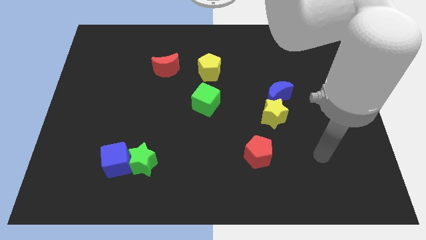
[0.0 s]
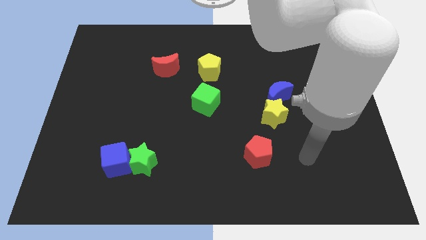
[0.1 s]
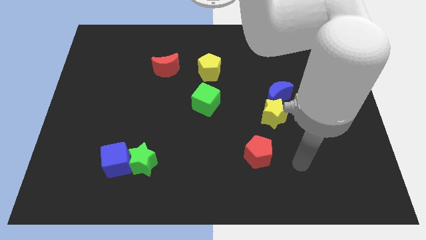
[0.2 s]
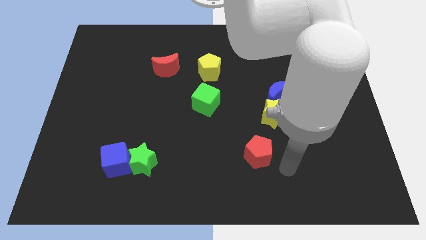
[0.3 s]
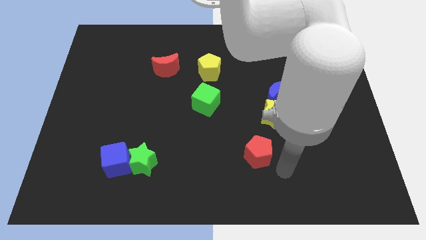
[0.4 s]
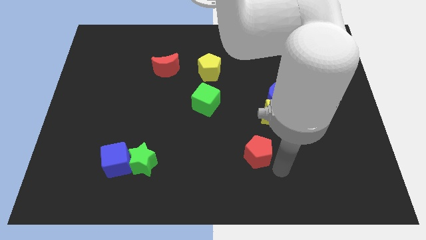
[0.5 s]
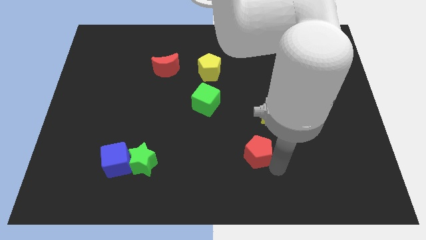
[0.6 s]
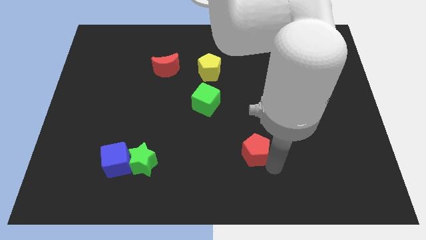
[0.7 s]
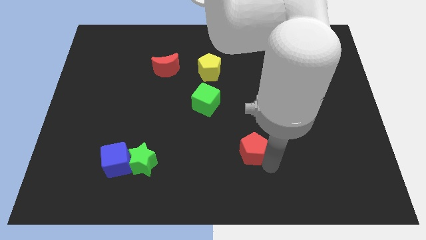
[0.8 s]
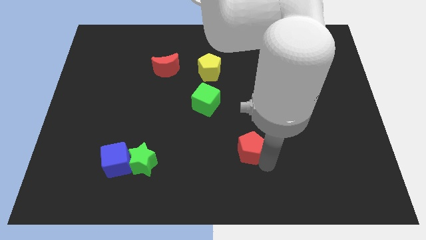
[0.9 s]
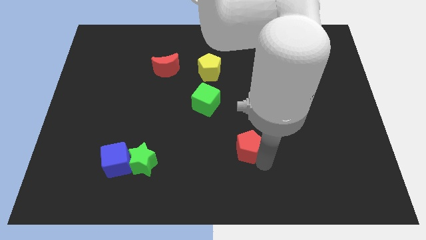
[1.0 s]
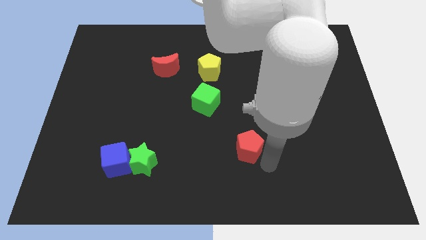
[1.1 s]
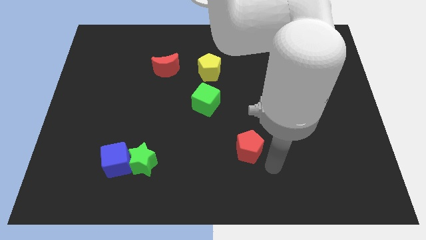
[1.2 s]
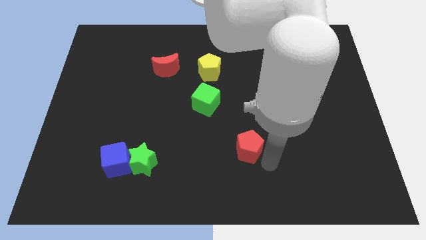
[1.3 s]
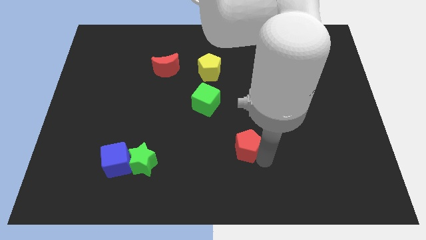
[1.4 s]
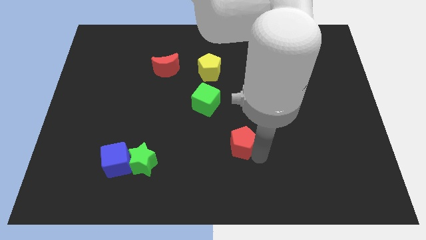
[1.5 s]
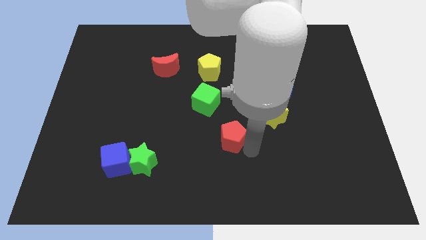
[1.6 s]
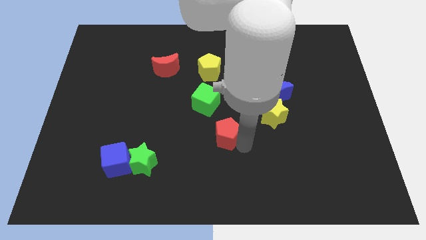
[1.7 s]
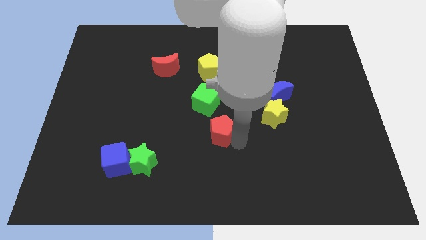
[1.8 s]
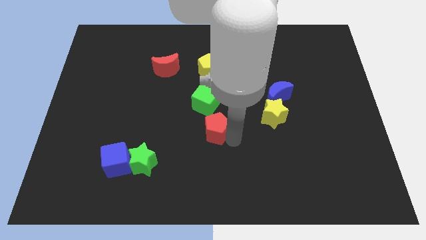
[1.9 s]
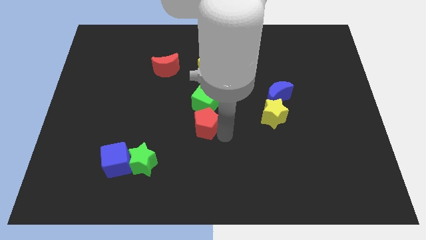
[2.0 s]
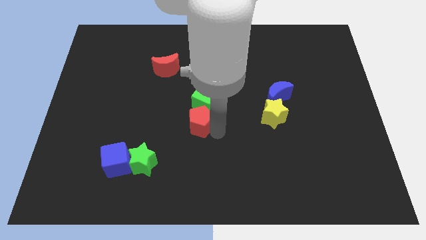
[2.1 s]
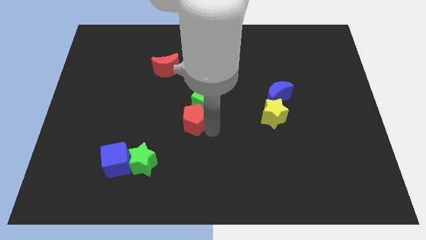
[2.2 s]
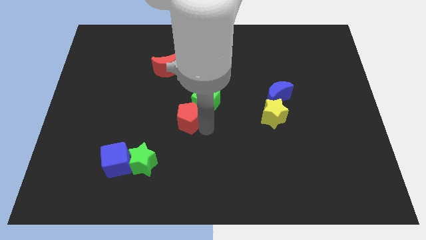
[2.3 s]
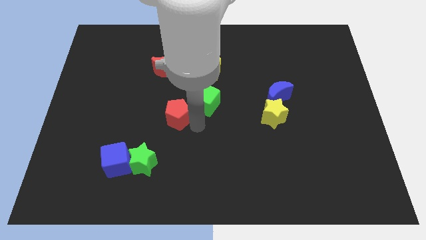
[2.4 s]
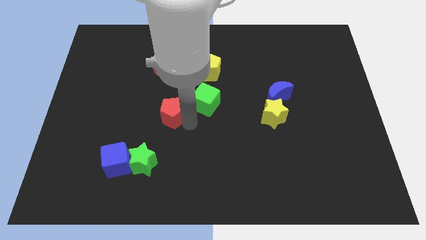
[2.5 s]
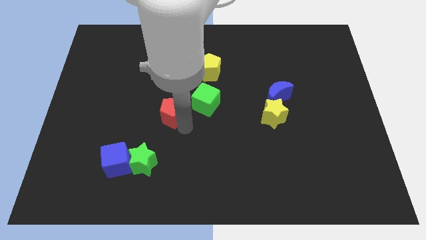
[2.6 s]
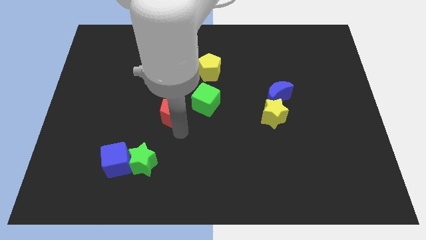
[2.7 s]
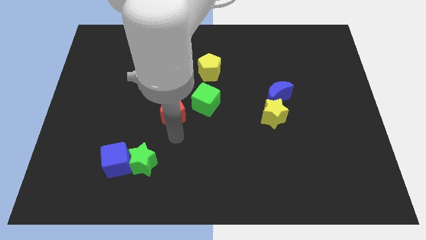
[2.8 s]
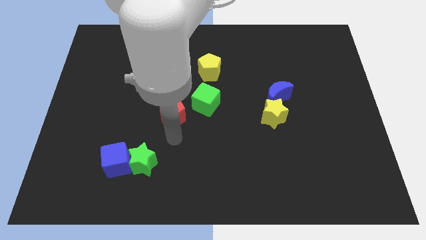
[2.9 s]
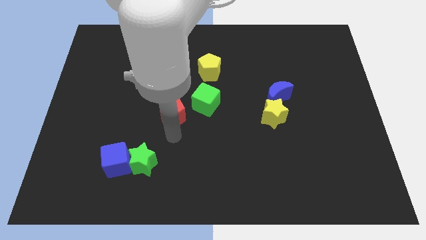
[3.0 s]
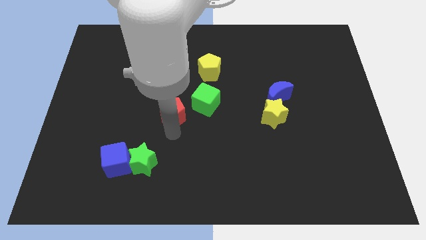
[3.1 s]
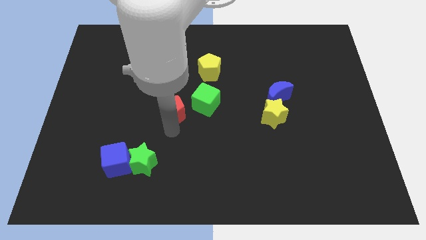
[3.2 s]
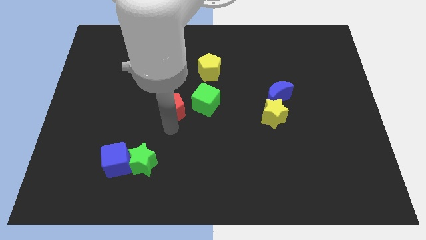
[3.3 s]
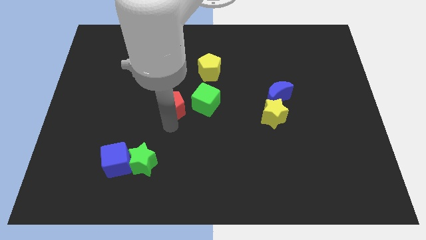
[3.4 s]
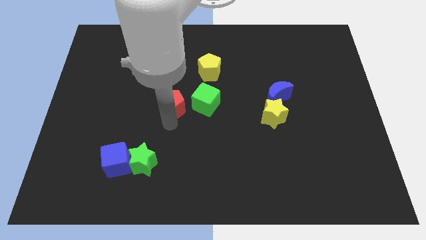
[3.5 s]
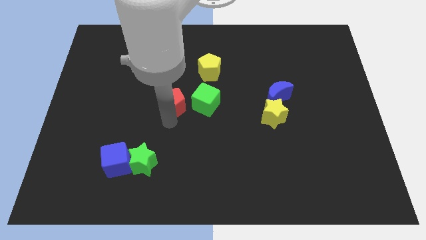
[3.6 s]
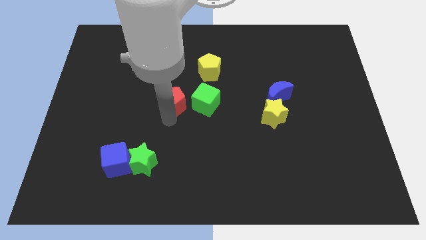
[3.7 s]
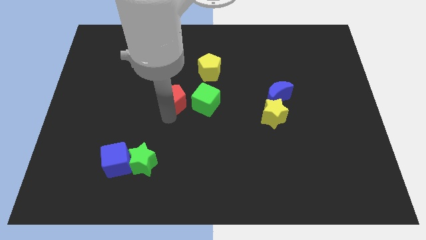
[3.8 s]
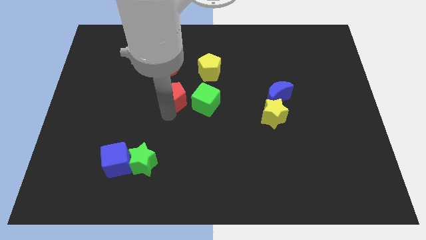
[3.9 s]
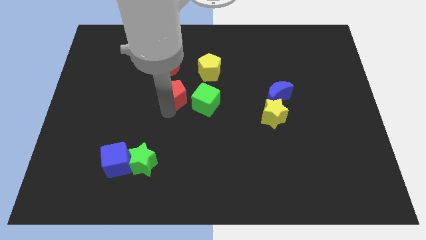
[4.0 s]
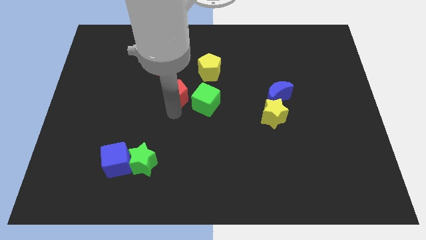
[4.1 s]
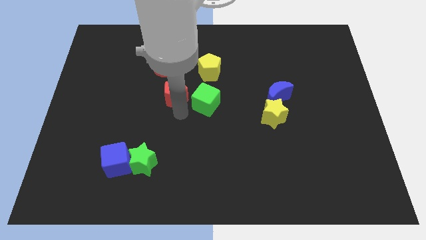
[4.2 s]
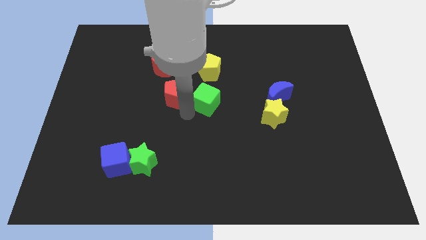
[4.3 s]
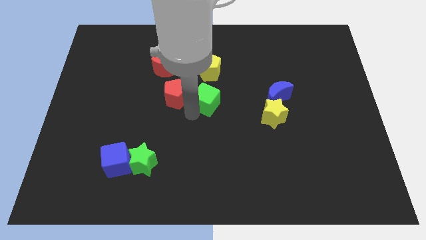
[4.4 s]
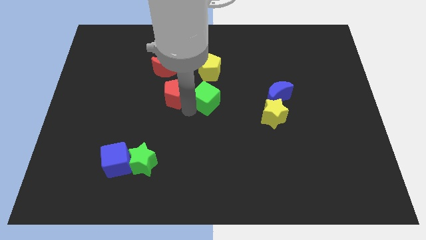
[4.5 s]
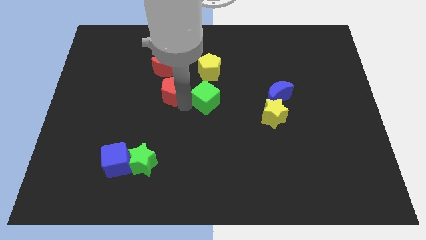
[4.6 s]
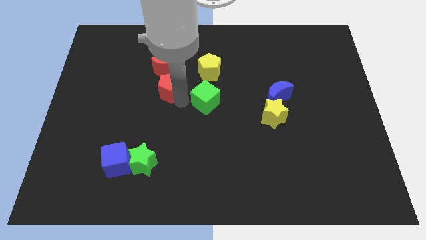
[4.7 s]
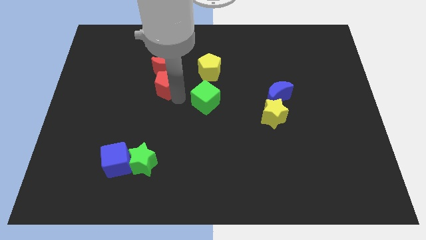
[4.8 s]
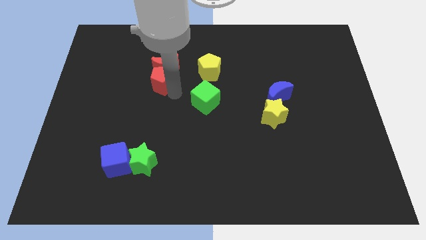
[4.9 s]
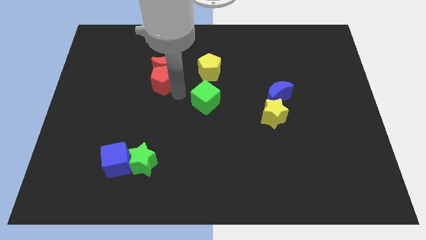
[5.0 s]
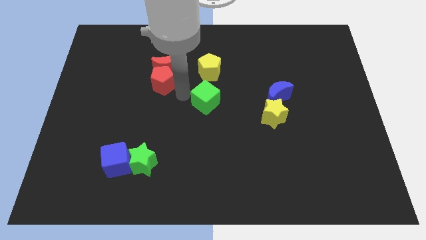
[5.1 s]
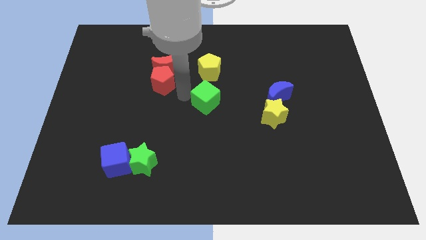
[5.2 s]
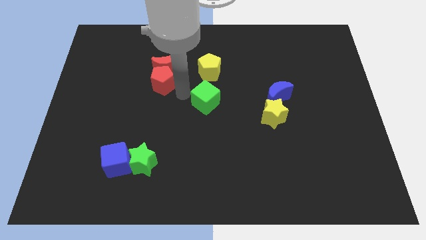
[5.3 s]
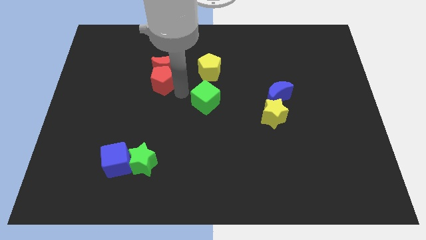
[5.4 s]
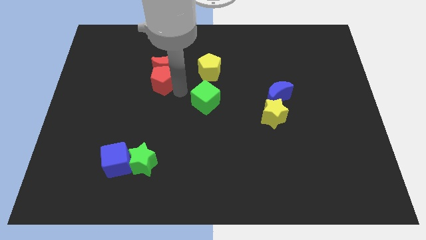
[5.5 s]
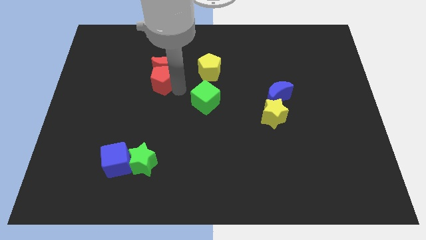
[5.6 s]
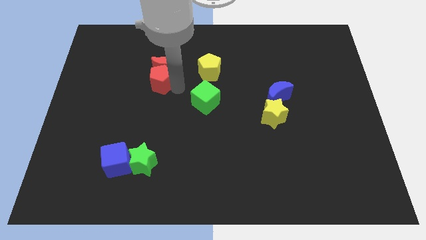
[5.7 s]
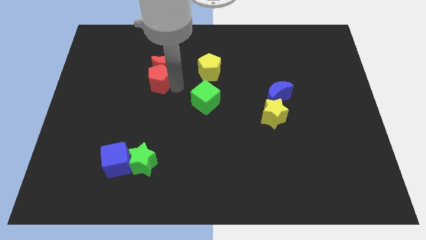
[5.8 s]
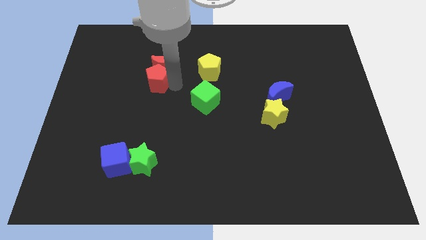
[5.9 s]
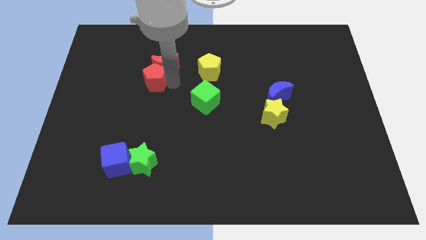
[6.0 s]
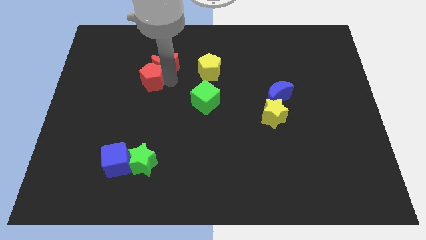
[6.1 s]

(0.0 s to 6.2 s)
move the red pentagon to the left of the red moon

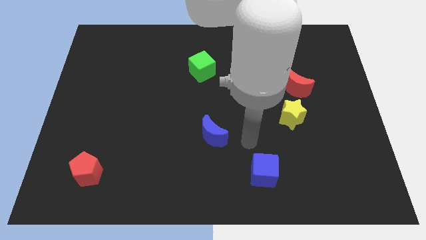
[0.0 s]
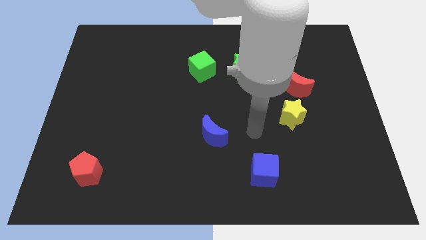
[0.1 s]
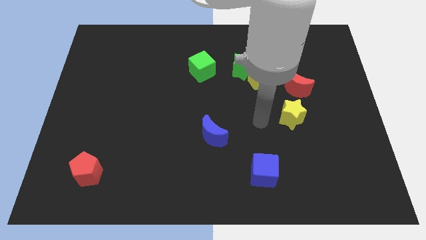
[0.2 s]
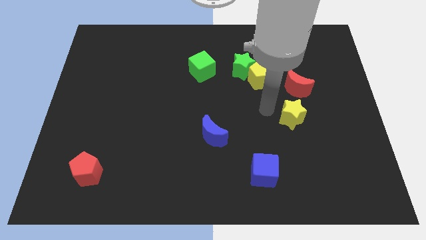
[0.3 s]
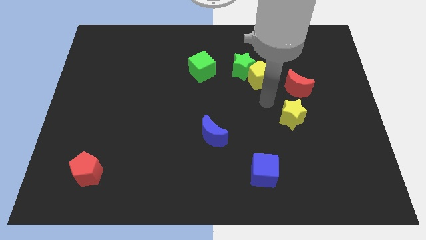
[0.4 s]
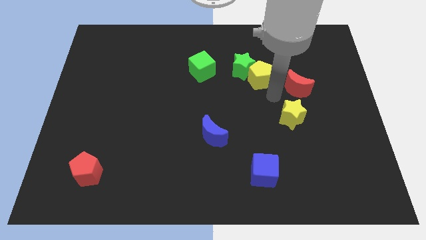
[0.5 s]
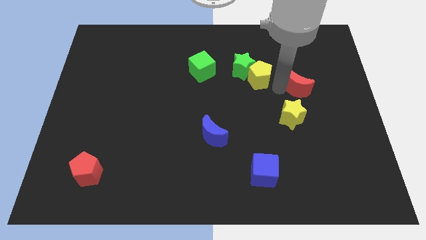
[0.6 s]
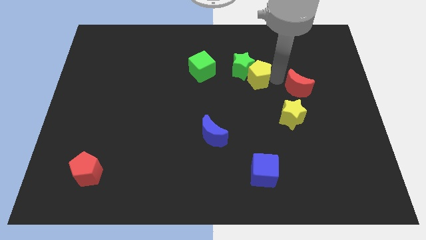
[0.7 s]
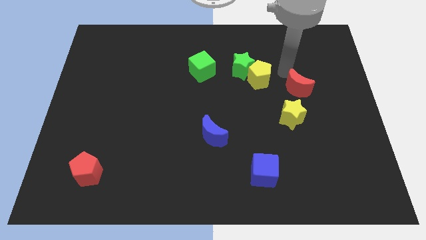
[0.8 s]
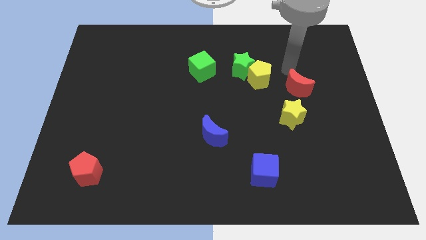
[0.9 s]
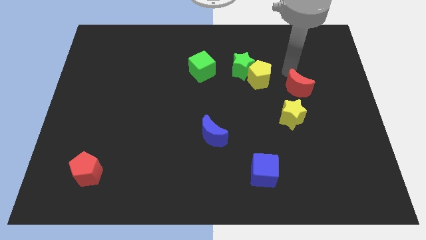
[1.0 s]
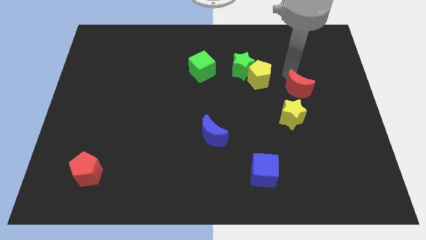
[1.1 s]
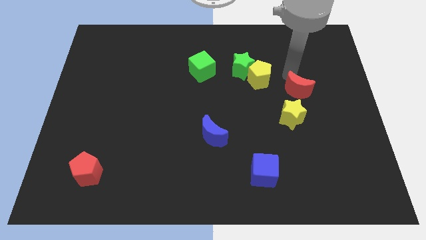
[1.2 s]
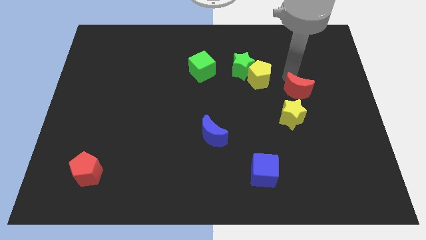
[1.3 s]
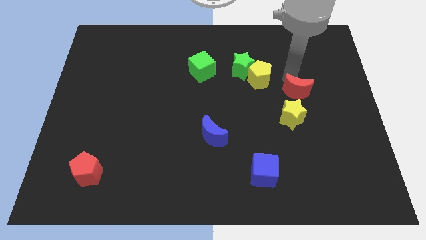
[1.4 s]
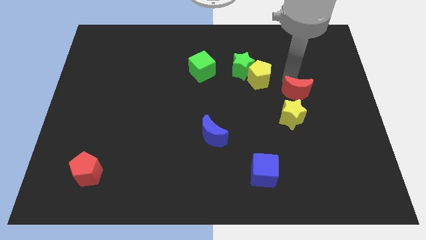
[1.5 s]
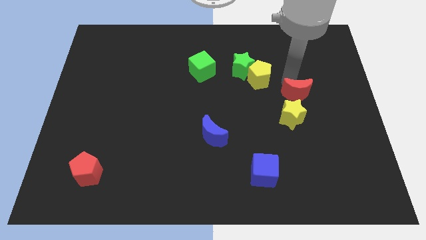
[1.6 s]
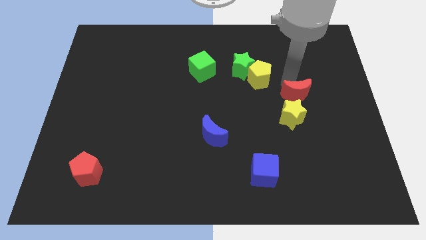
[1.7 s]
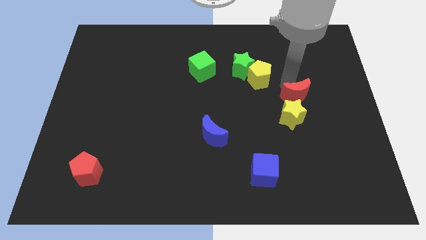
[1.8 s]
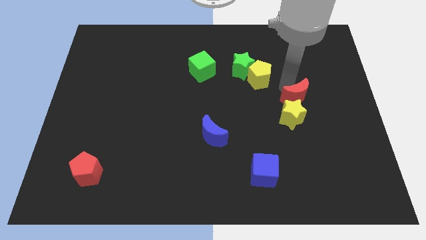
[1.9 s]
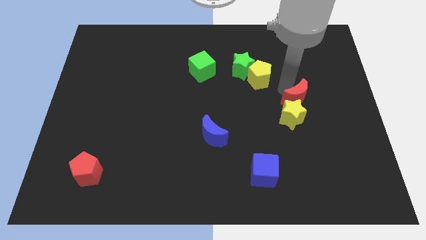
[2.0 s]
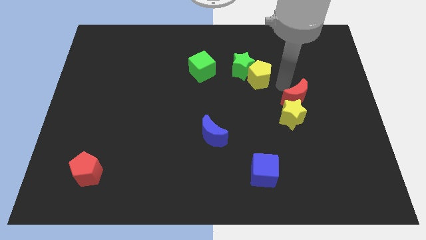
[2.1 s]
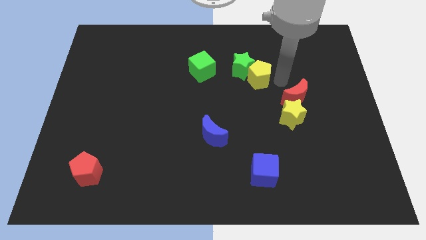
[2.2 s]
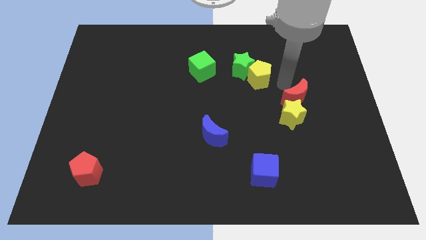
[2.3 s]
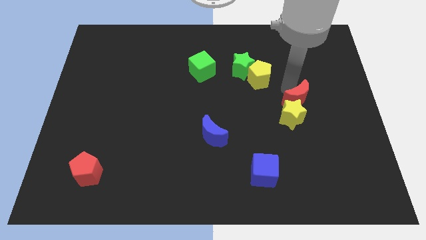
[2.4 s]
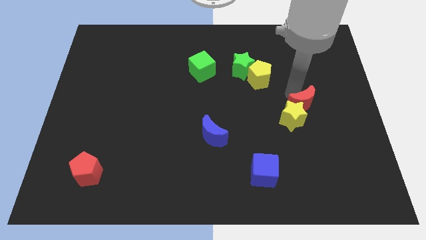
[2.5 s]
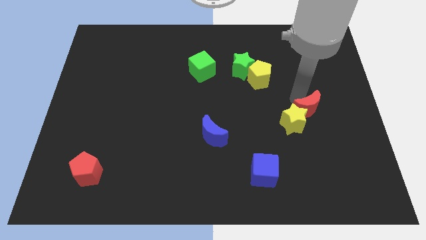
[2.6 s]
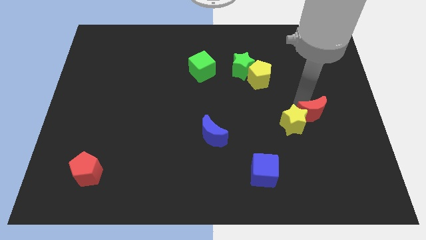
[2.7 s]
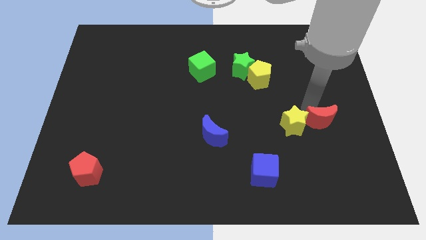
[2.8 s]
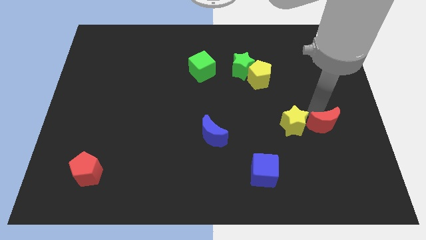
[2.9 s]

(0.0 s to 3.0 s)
put the red moon to the bottom right side of the yellow star
